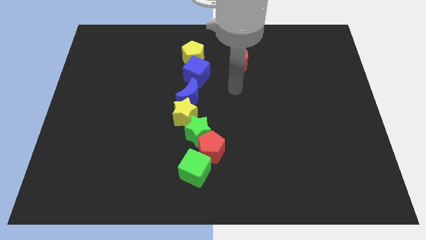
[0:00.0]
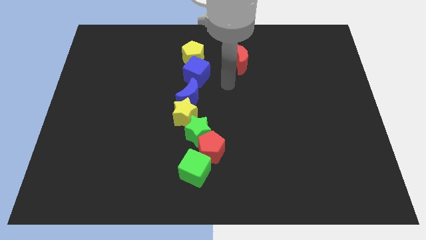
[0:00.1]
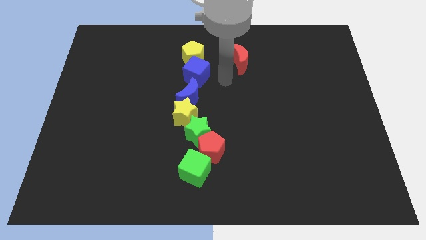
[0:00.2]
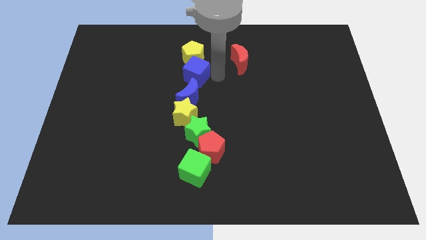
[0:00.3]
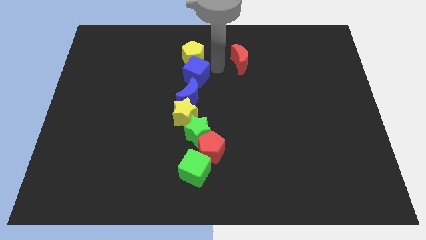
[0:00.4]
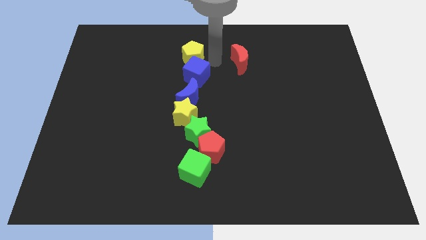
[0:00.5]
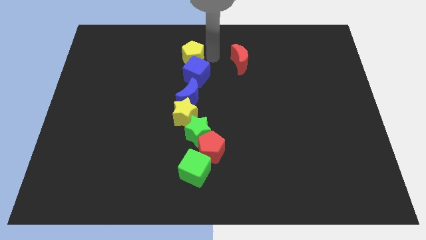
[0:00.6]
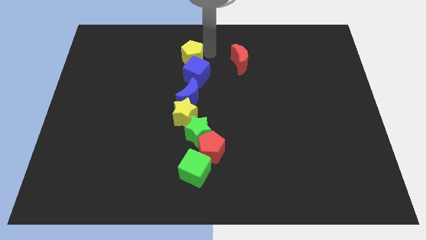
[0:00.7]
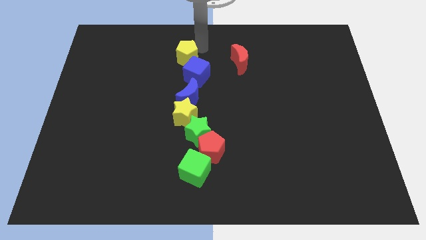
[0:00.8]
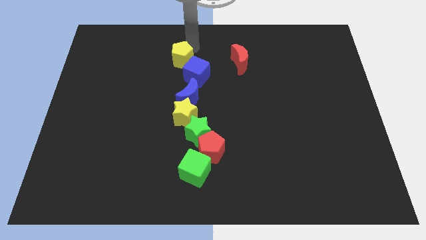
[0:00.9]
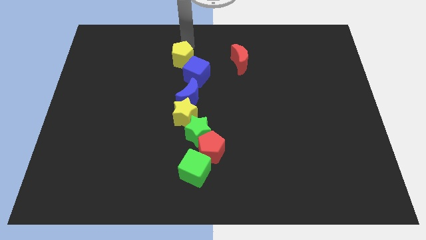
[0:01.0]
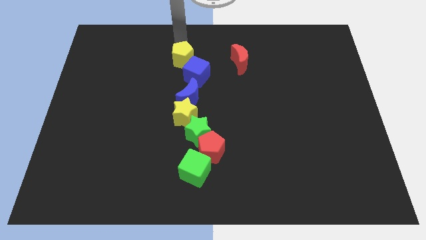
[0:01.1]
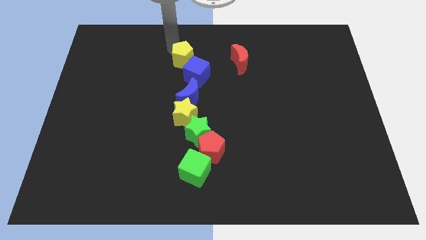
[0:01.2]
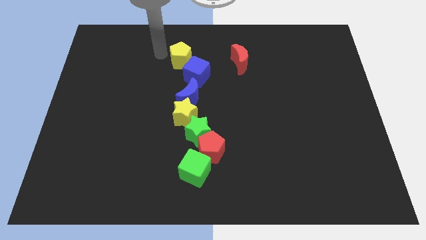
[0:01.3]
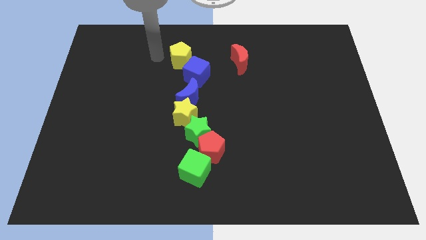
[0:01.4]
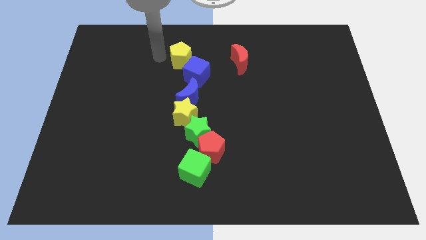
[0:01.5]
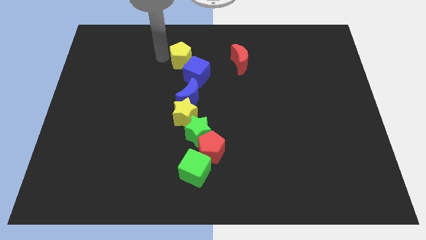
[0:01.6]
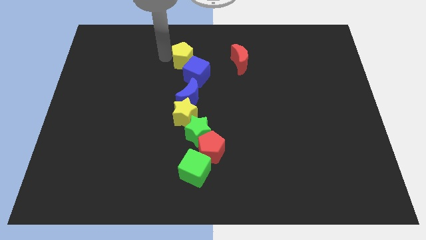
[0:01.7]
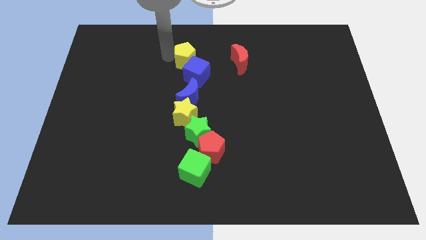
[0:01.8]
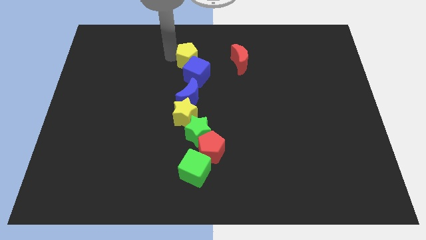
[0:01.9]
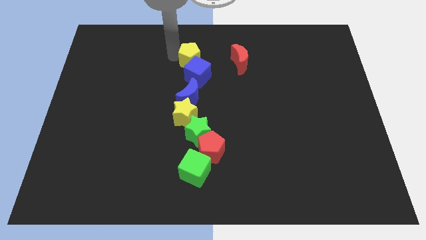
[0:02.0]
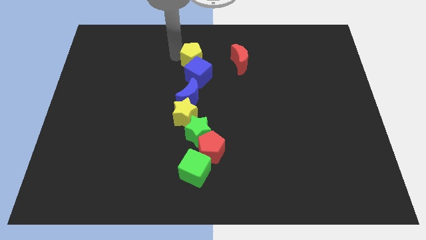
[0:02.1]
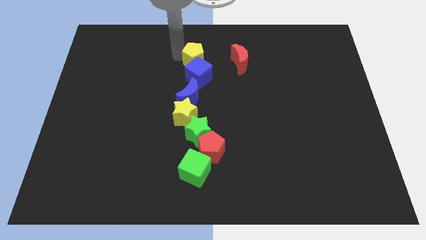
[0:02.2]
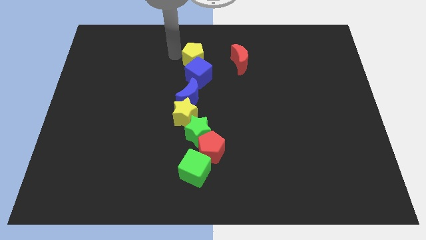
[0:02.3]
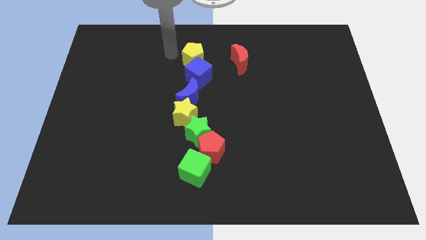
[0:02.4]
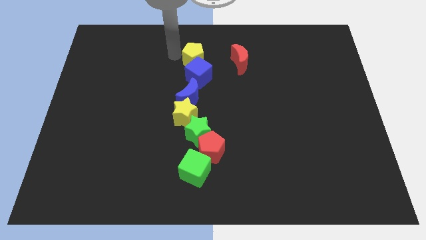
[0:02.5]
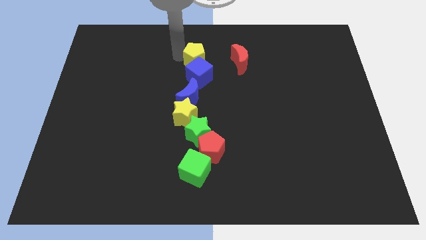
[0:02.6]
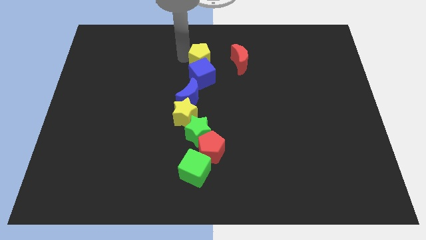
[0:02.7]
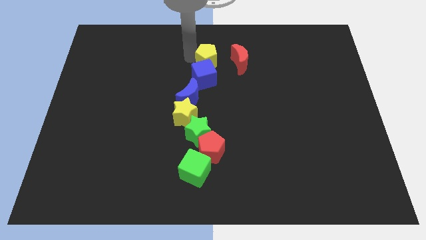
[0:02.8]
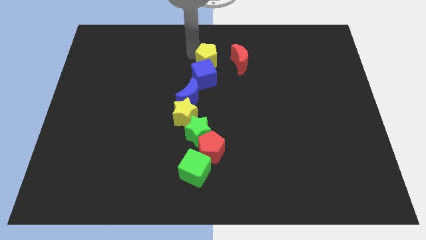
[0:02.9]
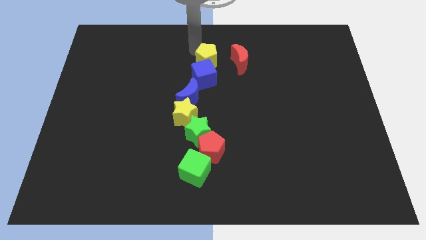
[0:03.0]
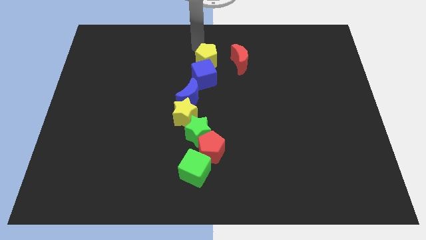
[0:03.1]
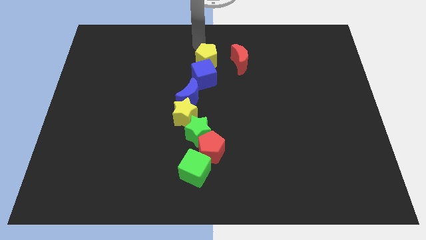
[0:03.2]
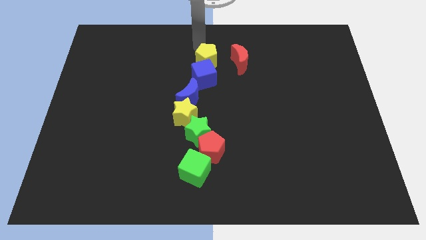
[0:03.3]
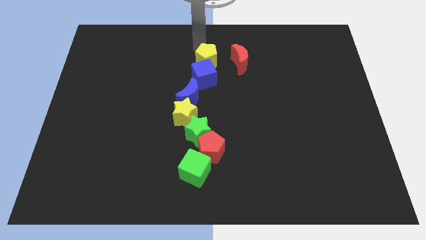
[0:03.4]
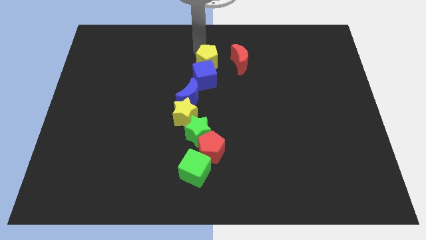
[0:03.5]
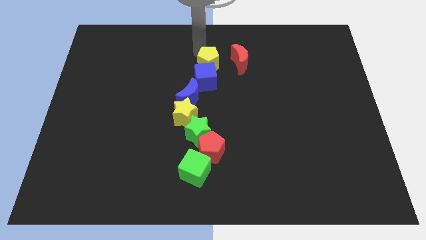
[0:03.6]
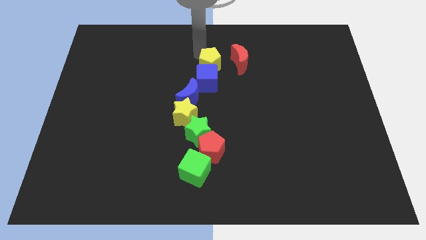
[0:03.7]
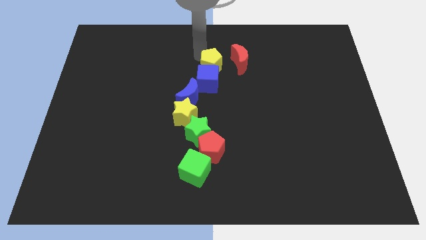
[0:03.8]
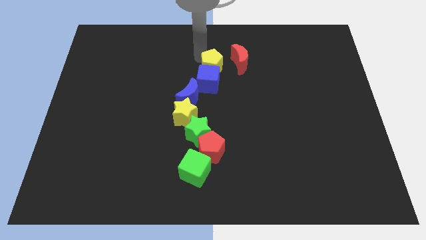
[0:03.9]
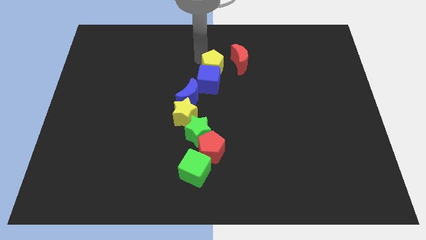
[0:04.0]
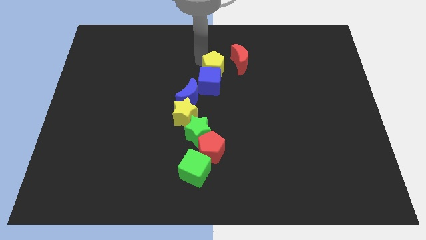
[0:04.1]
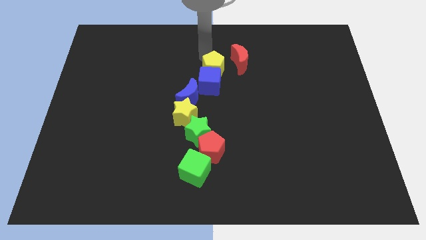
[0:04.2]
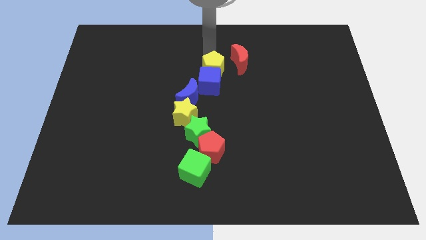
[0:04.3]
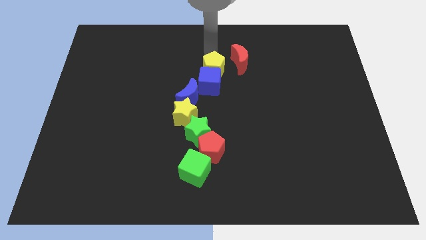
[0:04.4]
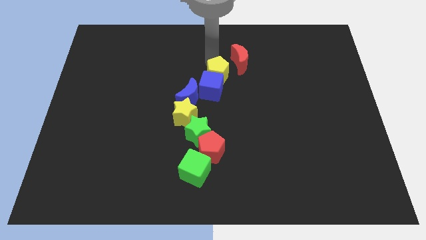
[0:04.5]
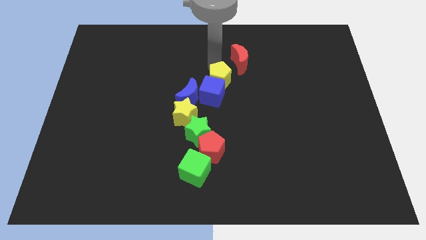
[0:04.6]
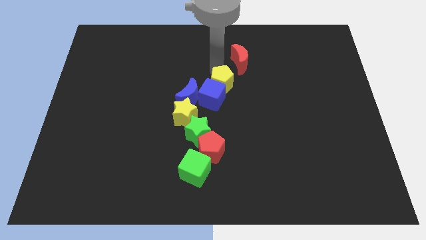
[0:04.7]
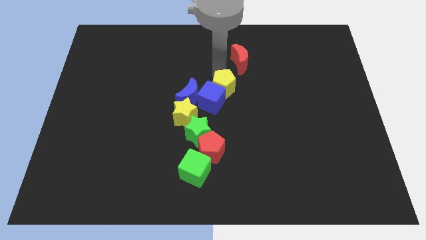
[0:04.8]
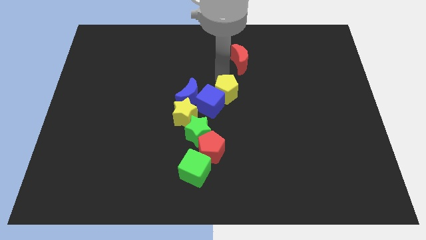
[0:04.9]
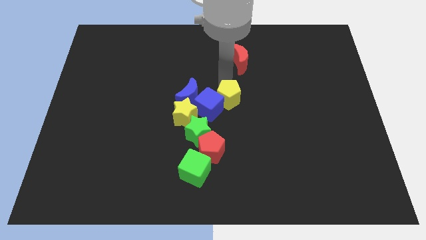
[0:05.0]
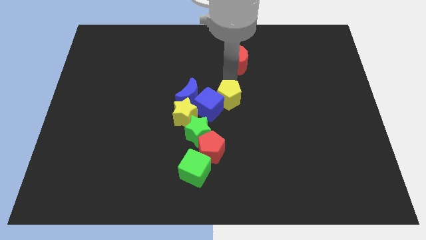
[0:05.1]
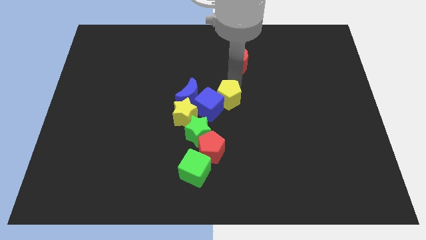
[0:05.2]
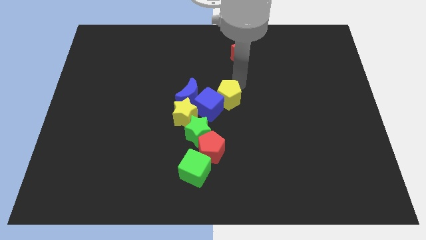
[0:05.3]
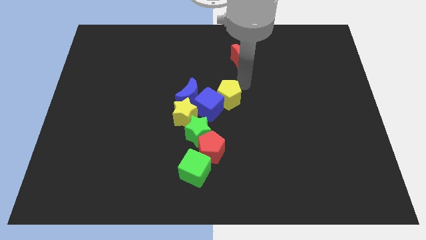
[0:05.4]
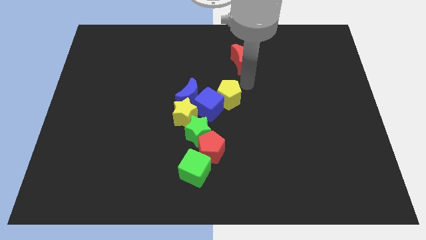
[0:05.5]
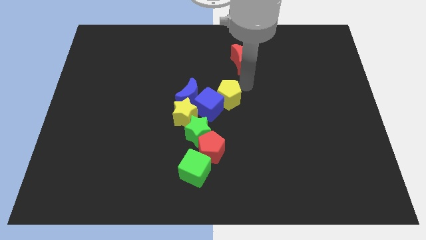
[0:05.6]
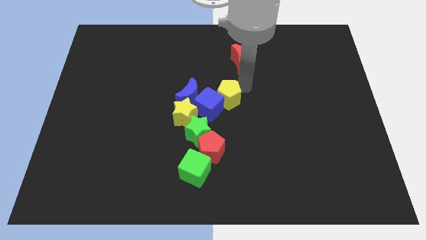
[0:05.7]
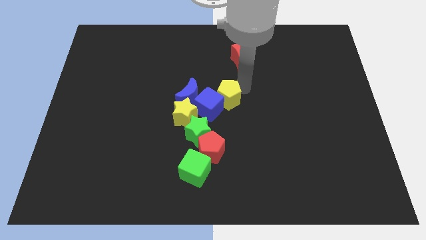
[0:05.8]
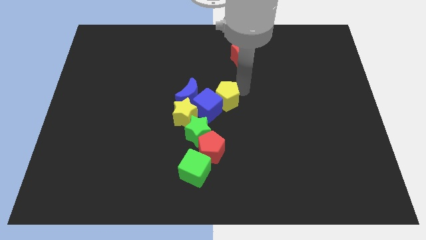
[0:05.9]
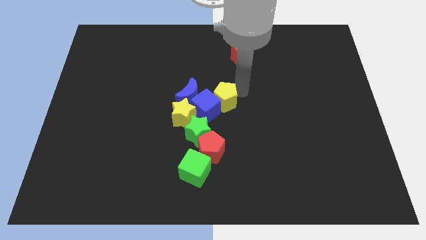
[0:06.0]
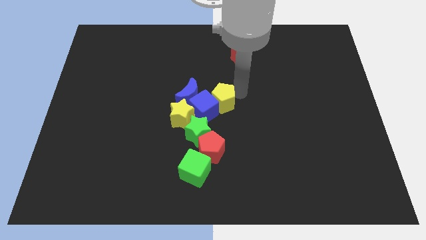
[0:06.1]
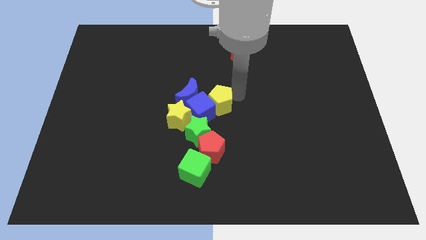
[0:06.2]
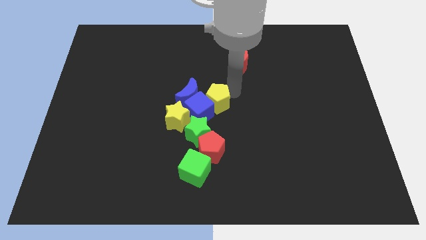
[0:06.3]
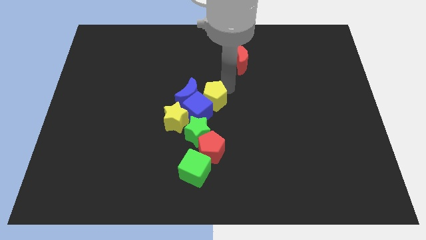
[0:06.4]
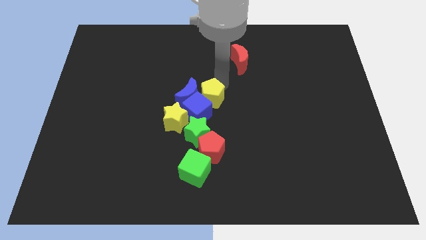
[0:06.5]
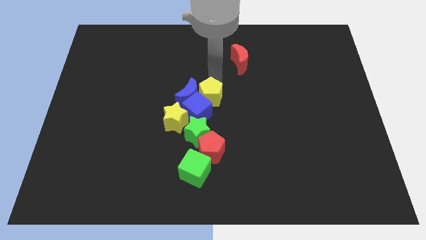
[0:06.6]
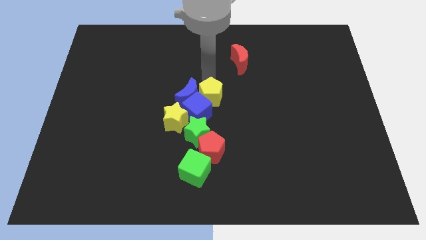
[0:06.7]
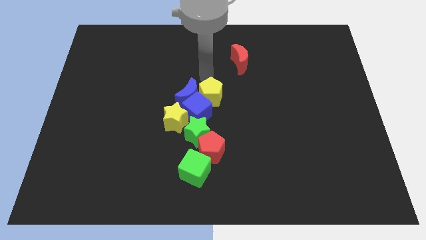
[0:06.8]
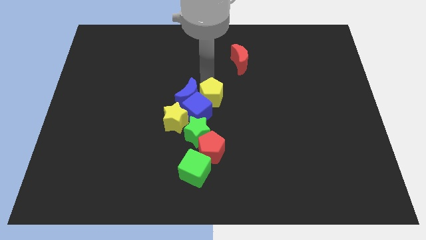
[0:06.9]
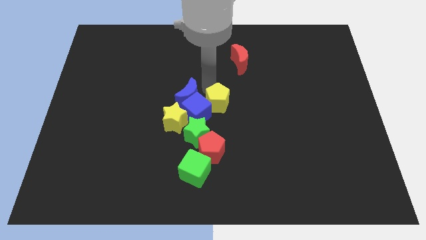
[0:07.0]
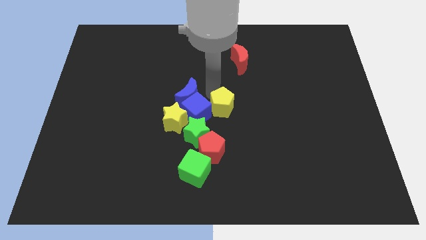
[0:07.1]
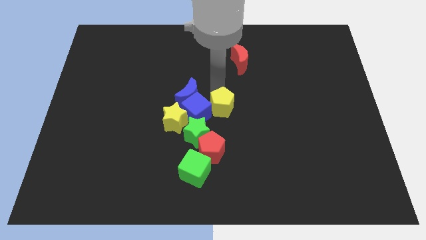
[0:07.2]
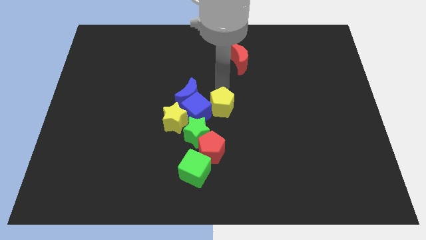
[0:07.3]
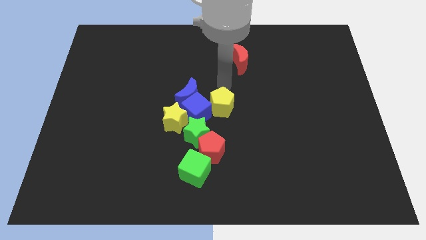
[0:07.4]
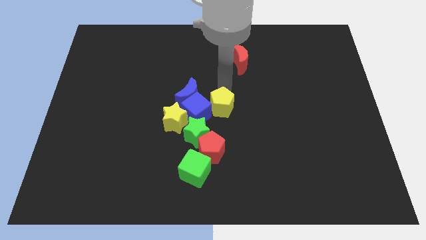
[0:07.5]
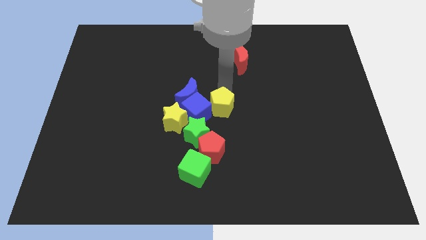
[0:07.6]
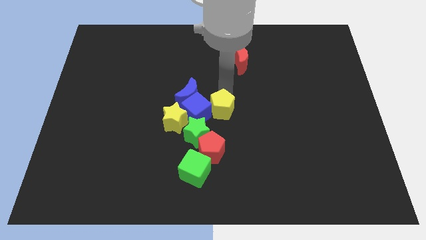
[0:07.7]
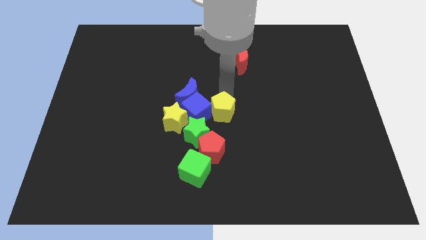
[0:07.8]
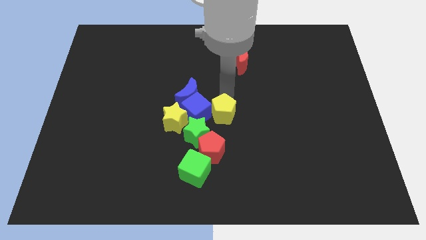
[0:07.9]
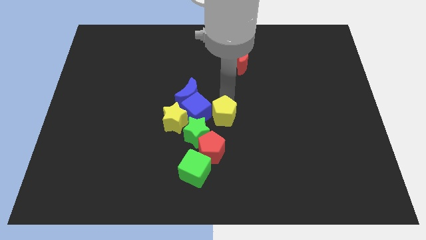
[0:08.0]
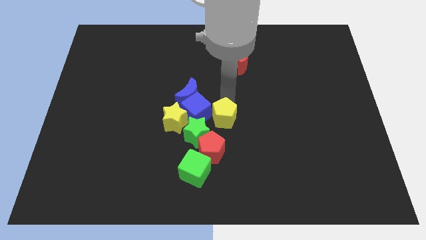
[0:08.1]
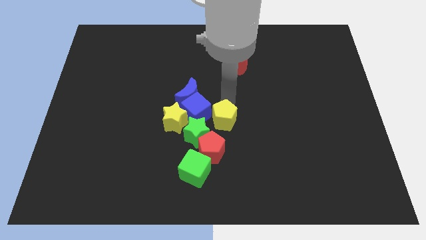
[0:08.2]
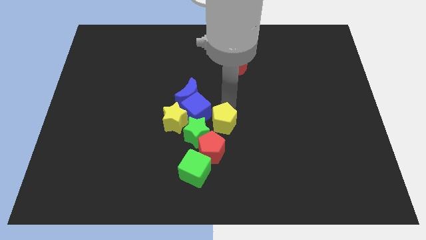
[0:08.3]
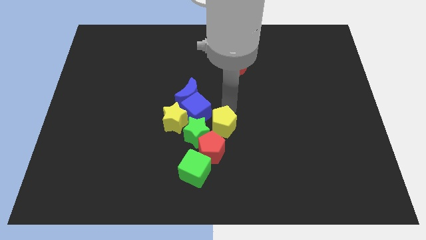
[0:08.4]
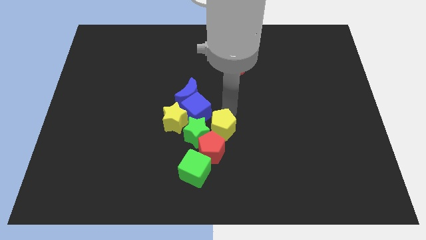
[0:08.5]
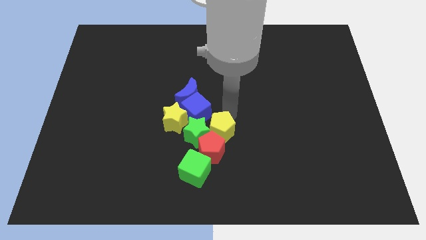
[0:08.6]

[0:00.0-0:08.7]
put the yellow pentagon close to the red pentagon
